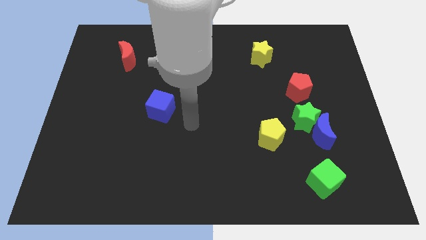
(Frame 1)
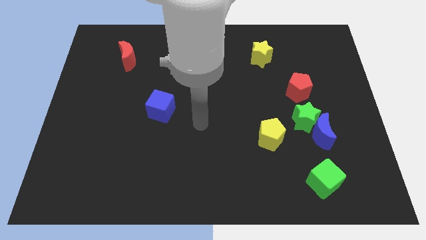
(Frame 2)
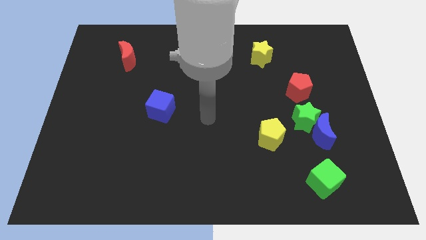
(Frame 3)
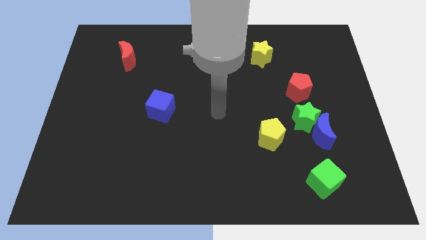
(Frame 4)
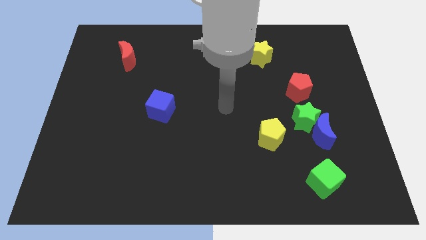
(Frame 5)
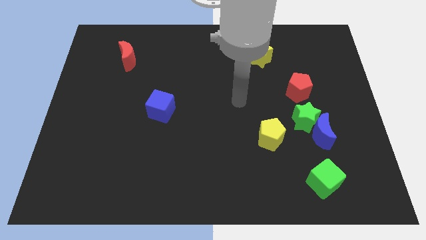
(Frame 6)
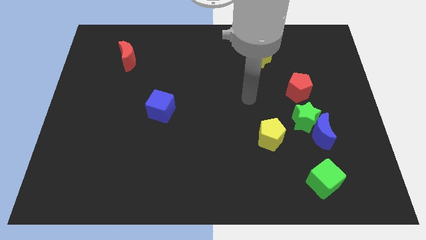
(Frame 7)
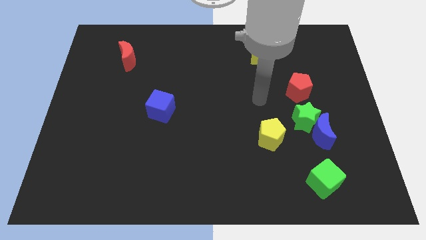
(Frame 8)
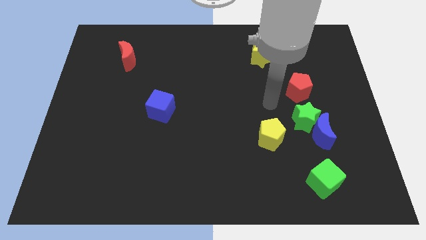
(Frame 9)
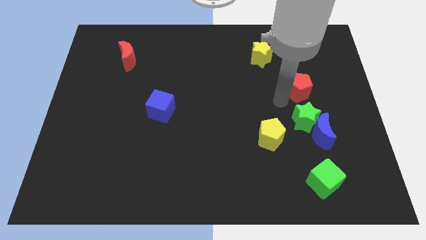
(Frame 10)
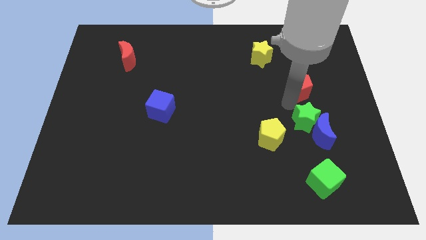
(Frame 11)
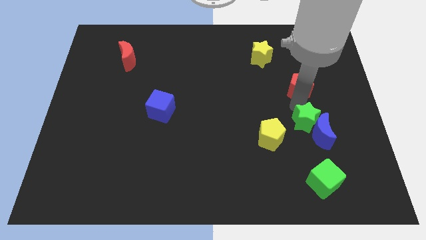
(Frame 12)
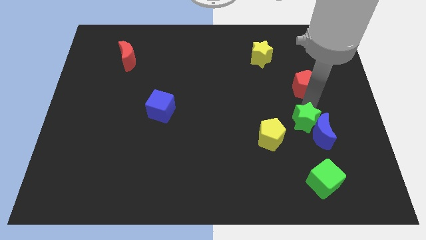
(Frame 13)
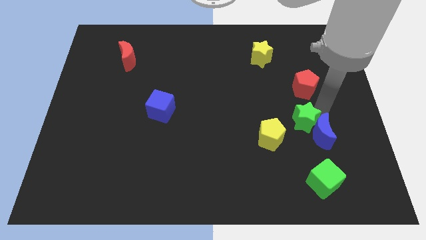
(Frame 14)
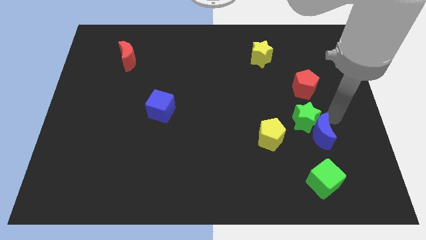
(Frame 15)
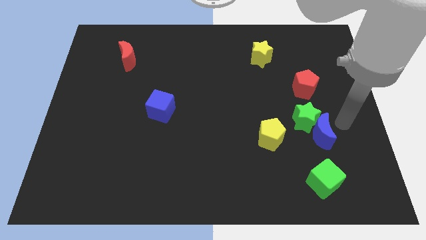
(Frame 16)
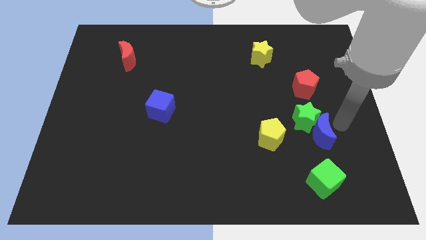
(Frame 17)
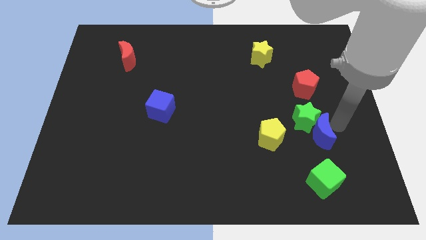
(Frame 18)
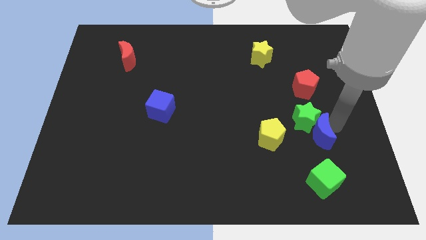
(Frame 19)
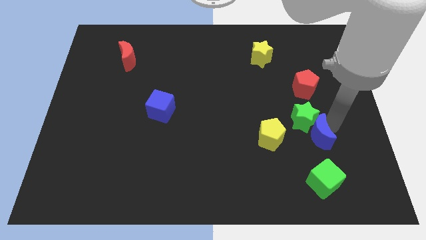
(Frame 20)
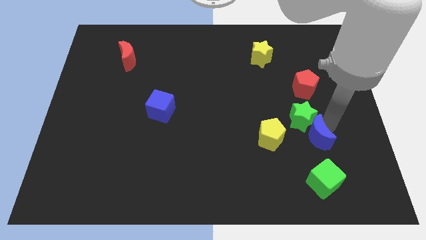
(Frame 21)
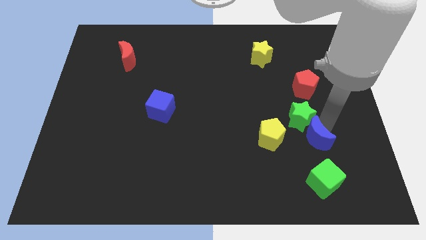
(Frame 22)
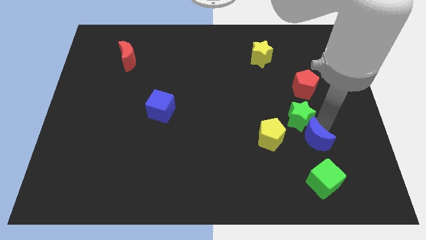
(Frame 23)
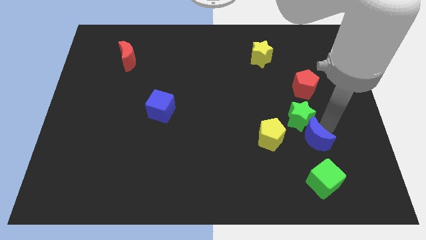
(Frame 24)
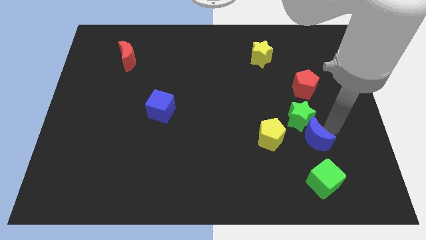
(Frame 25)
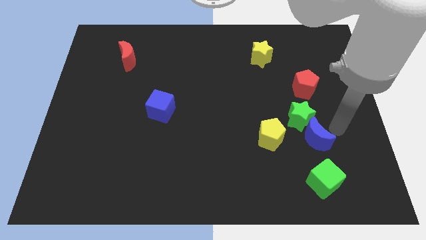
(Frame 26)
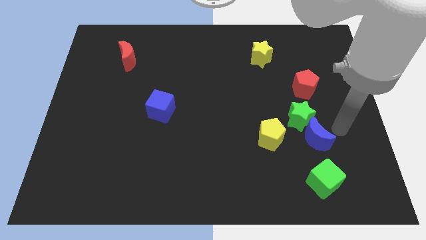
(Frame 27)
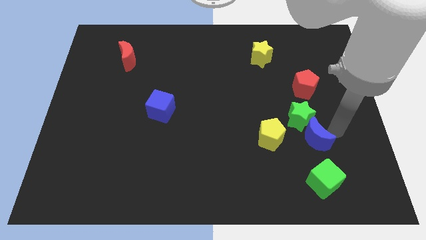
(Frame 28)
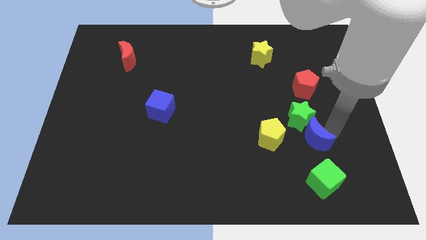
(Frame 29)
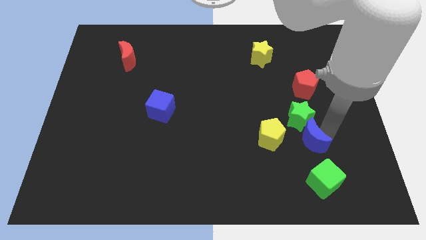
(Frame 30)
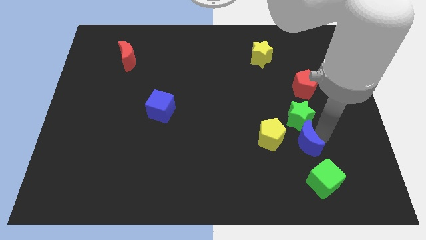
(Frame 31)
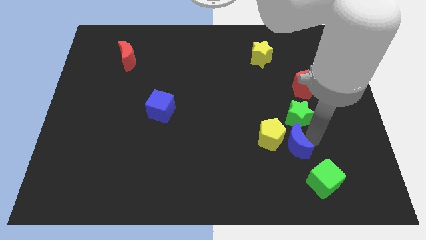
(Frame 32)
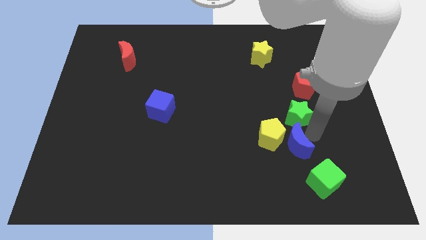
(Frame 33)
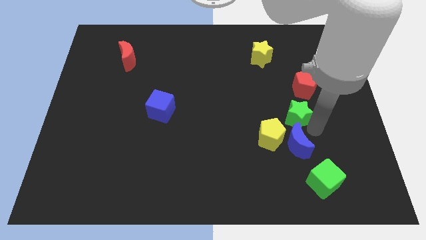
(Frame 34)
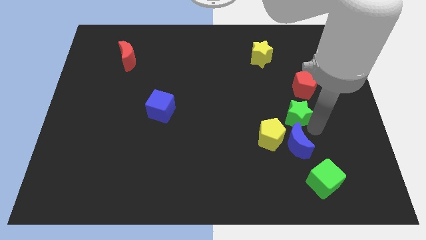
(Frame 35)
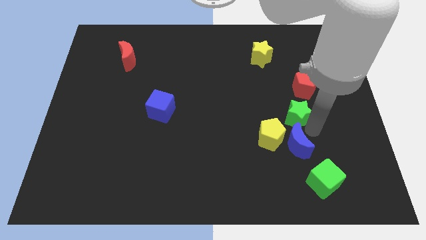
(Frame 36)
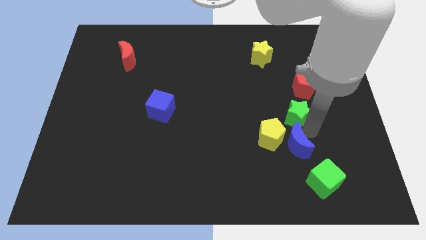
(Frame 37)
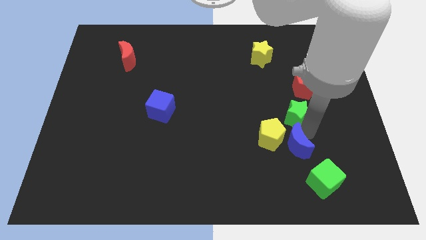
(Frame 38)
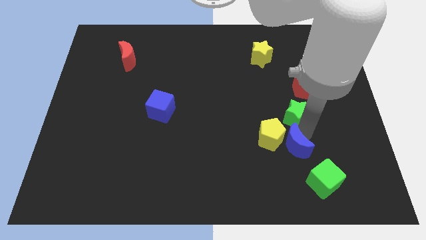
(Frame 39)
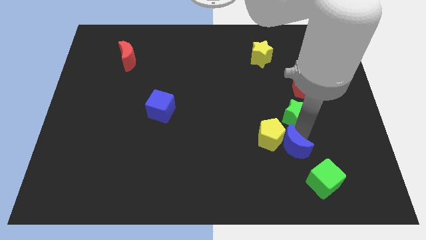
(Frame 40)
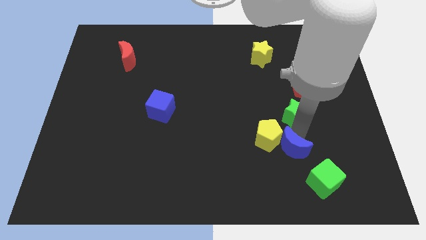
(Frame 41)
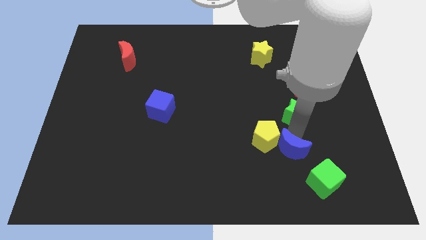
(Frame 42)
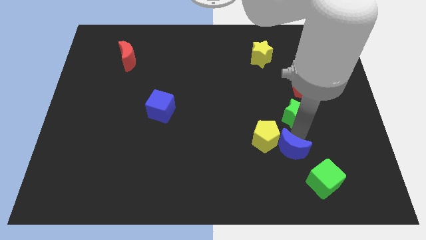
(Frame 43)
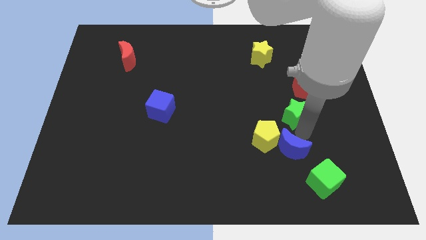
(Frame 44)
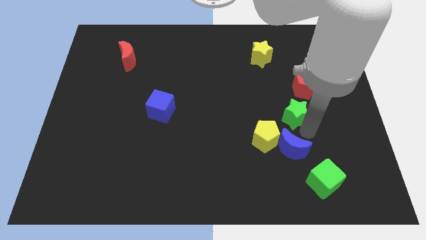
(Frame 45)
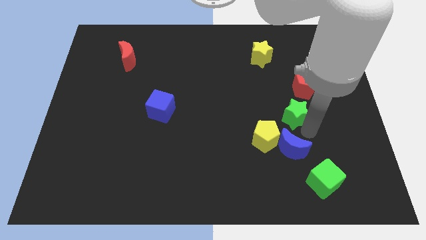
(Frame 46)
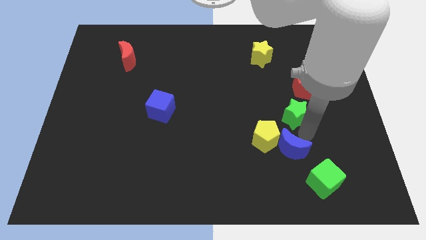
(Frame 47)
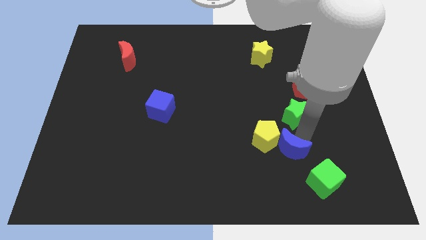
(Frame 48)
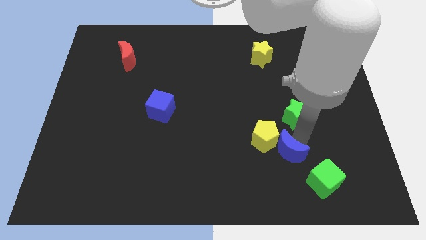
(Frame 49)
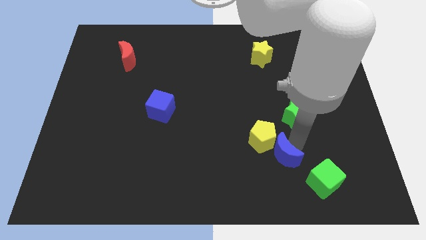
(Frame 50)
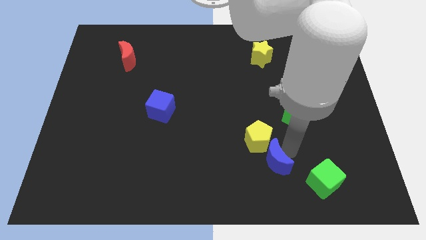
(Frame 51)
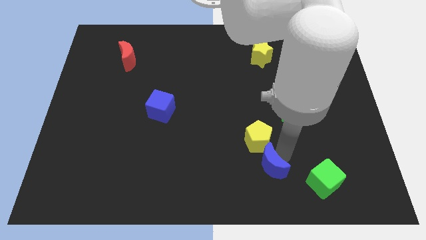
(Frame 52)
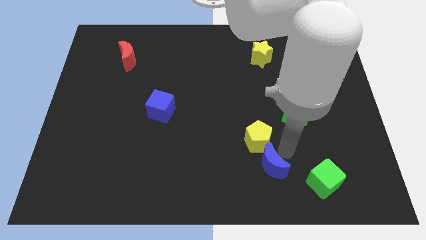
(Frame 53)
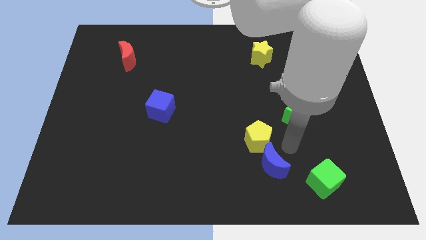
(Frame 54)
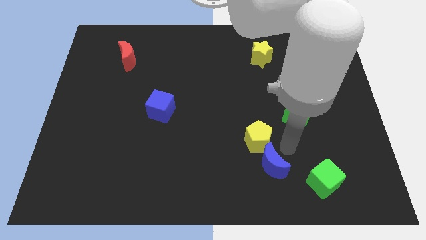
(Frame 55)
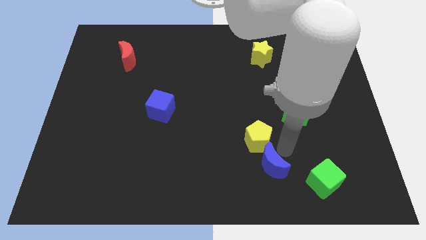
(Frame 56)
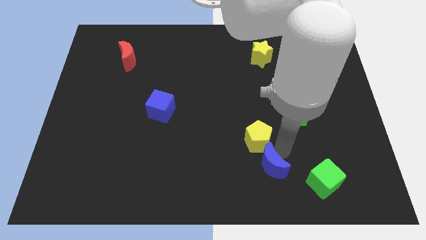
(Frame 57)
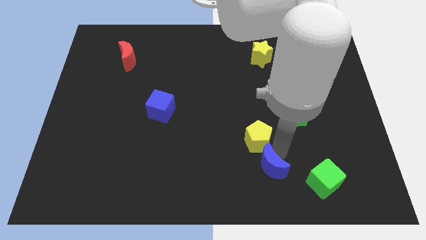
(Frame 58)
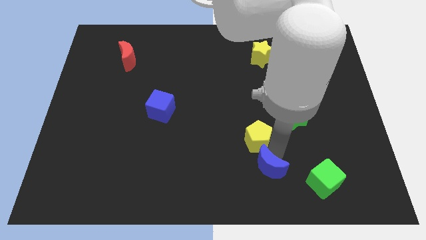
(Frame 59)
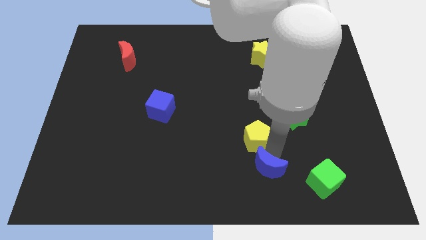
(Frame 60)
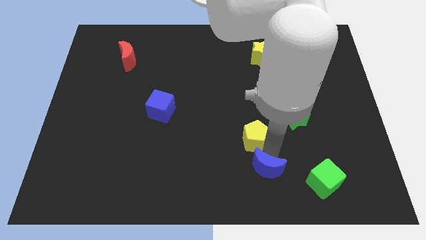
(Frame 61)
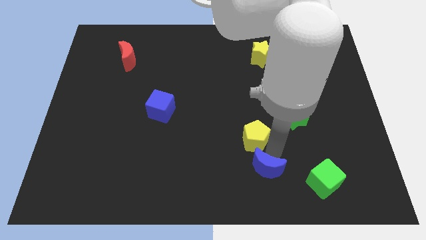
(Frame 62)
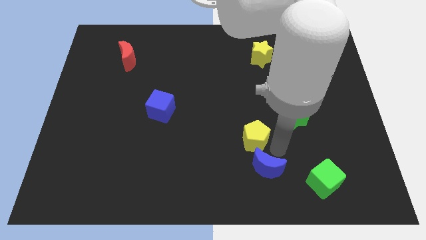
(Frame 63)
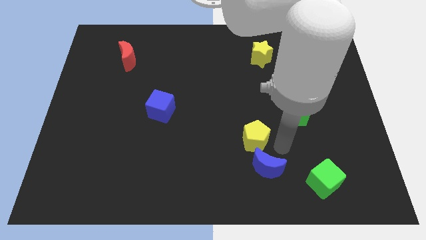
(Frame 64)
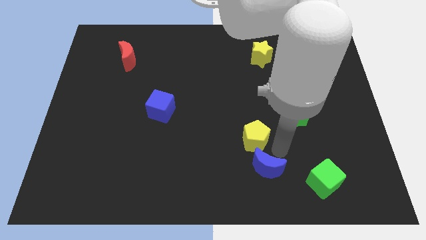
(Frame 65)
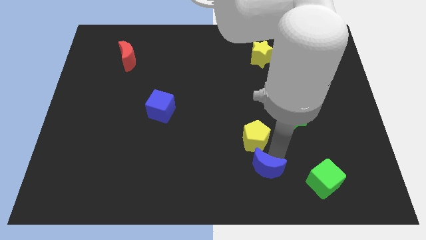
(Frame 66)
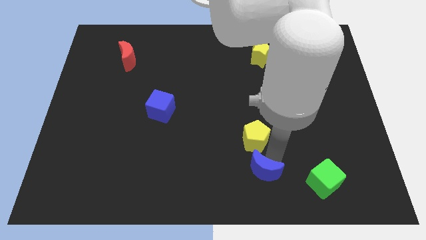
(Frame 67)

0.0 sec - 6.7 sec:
put the blue moon to the bottom
